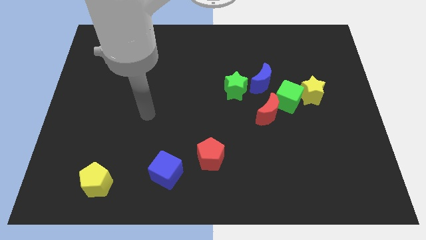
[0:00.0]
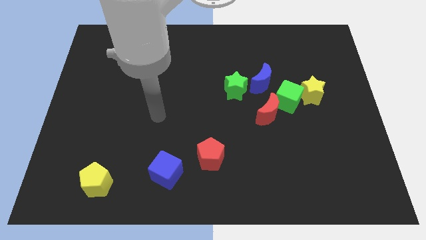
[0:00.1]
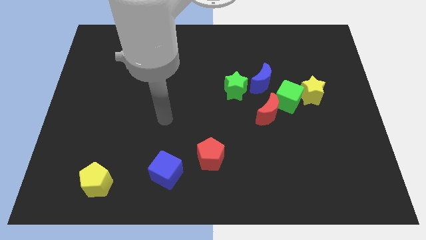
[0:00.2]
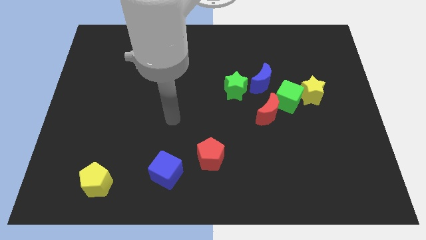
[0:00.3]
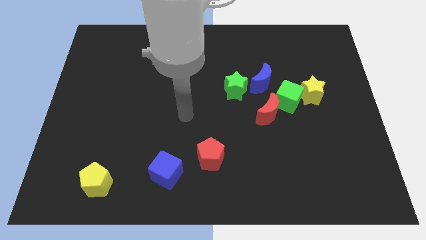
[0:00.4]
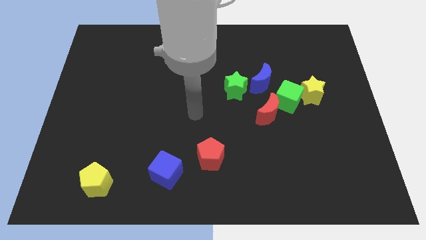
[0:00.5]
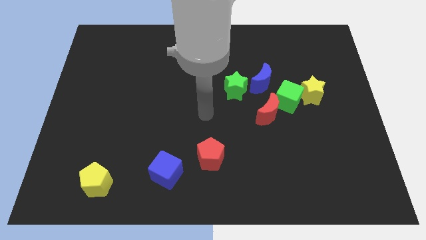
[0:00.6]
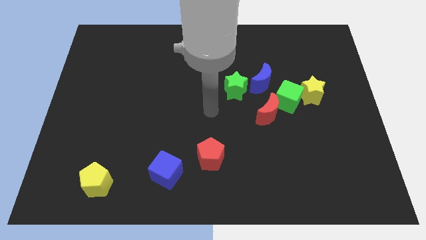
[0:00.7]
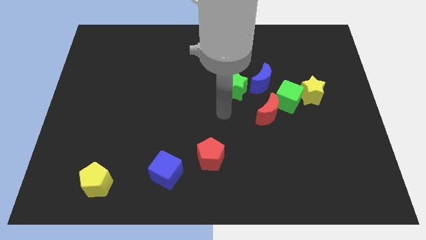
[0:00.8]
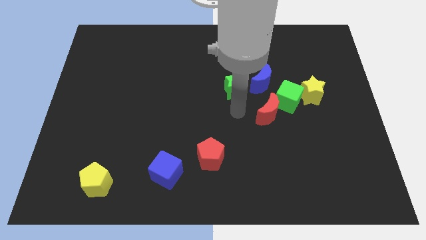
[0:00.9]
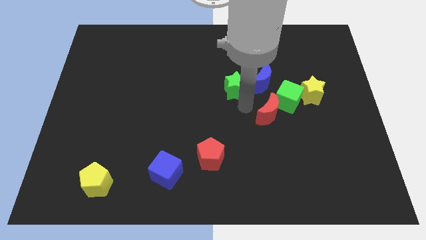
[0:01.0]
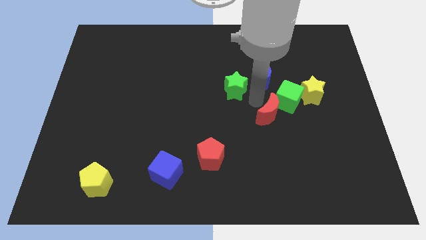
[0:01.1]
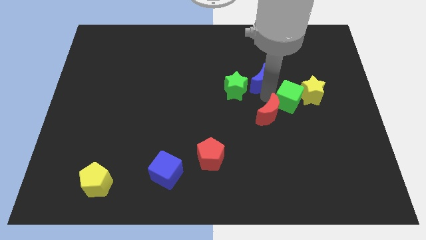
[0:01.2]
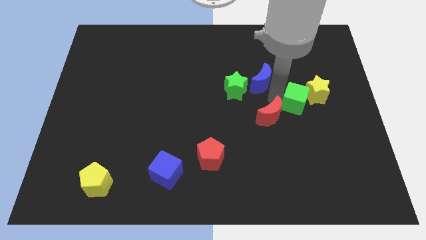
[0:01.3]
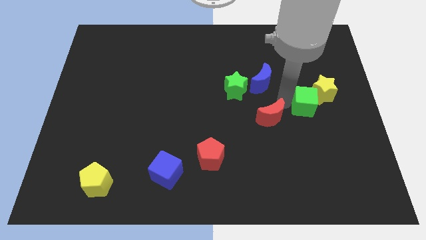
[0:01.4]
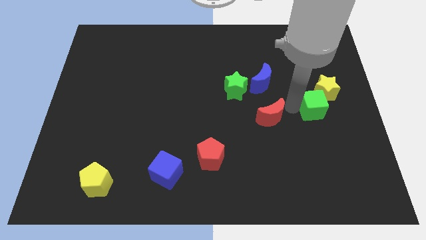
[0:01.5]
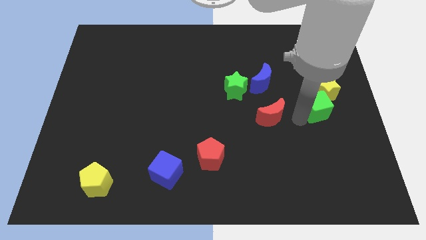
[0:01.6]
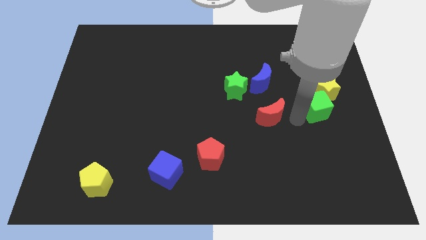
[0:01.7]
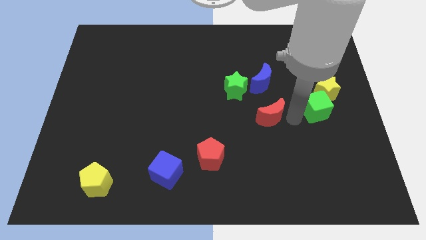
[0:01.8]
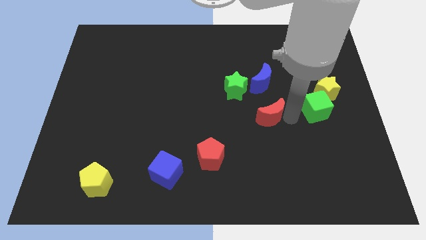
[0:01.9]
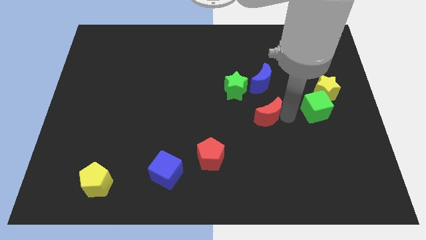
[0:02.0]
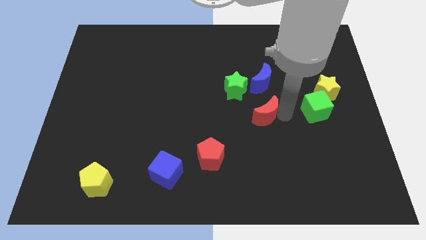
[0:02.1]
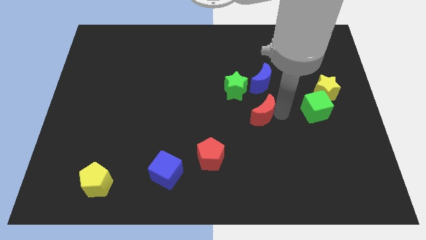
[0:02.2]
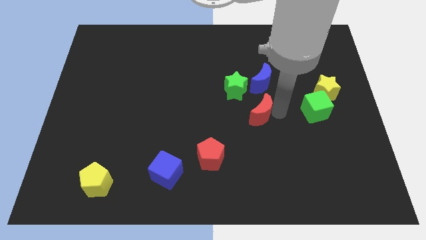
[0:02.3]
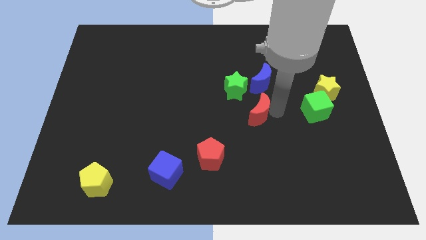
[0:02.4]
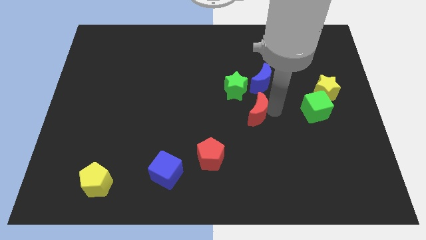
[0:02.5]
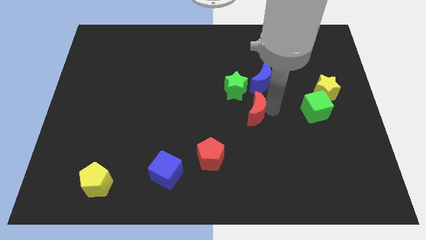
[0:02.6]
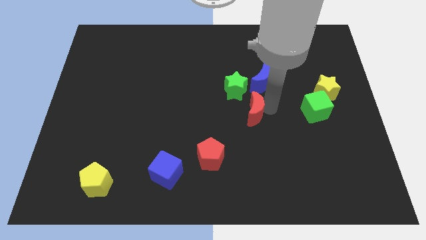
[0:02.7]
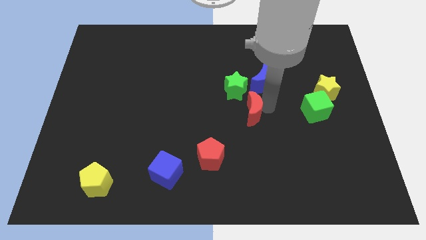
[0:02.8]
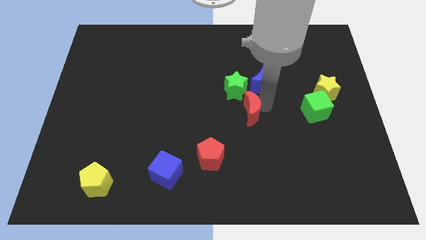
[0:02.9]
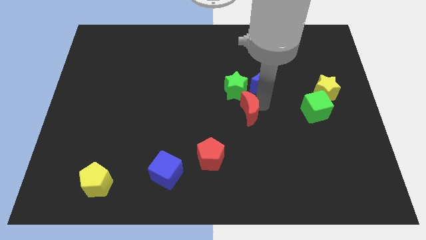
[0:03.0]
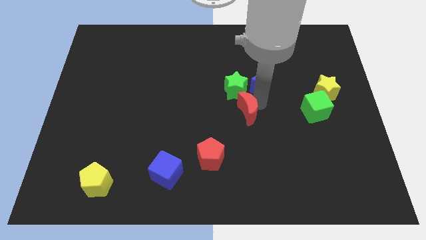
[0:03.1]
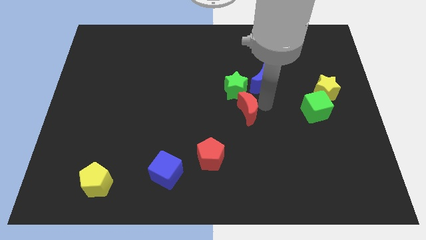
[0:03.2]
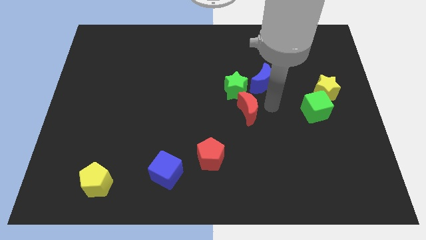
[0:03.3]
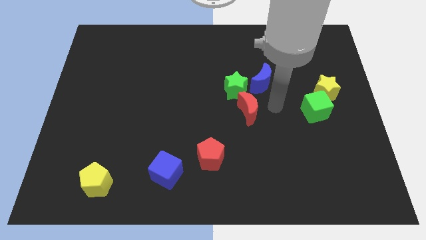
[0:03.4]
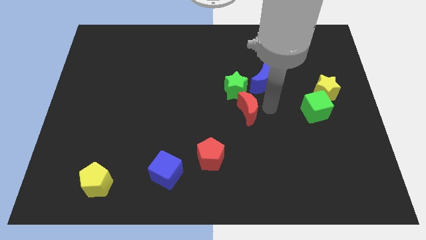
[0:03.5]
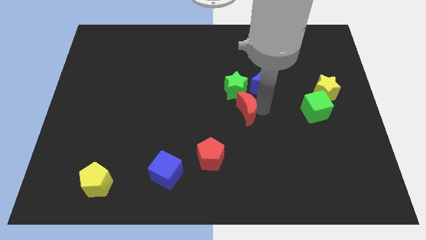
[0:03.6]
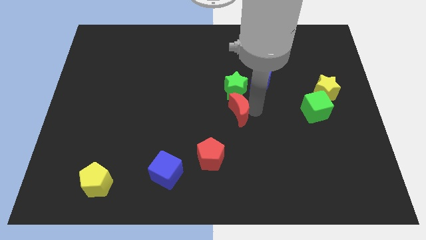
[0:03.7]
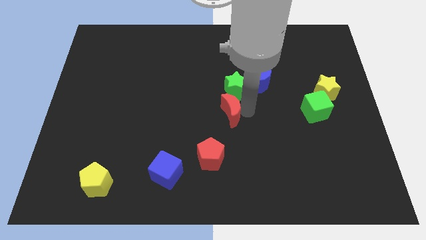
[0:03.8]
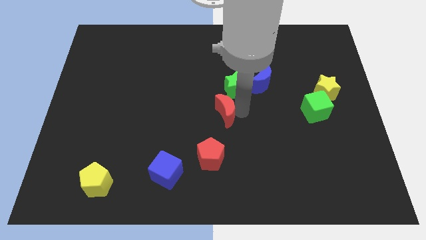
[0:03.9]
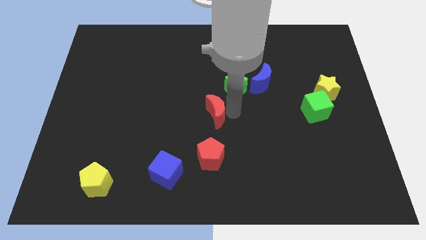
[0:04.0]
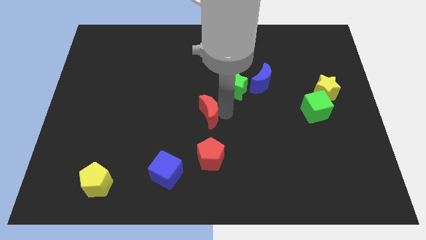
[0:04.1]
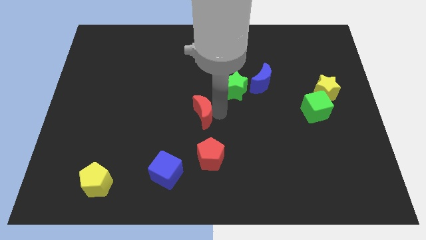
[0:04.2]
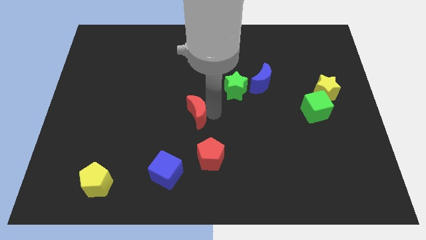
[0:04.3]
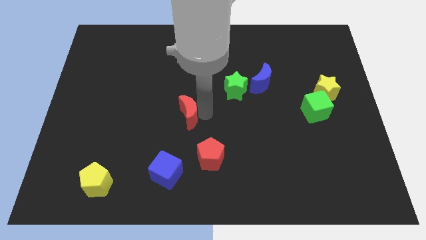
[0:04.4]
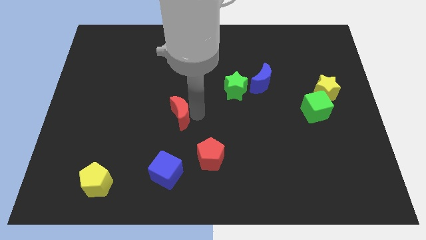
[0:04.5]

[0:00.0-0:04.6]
move the red moon left

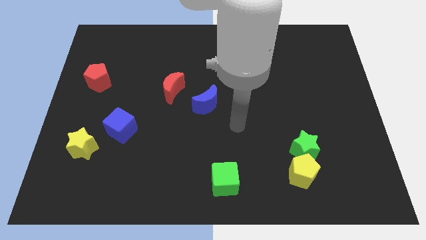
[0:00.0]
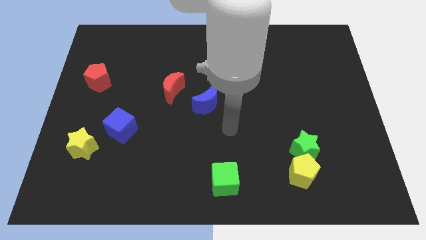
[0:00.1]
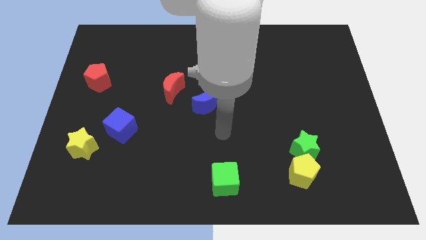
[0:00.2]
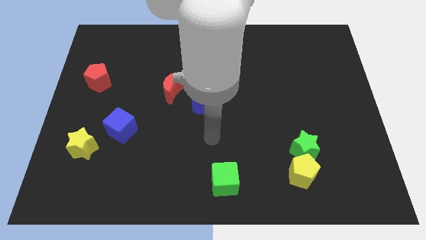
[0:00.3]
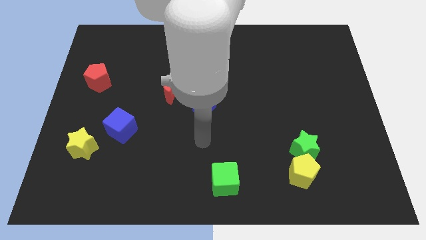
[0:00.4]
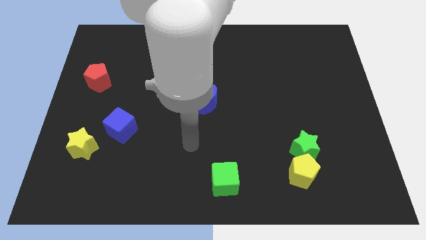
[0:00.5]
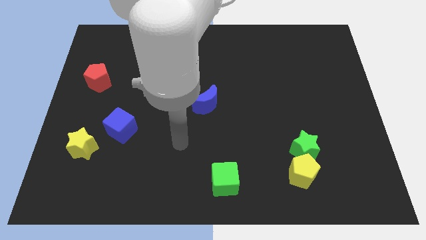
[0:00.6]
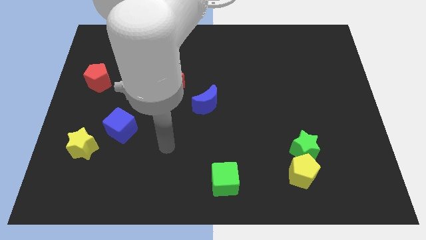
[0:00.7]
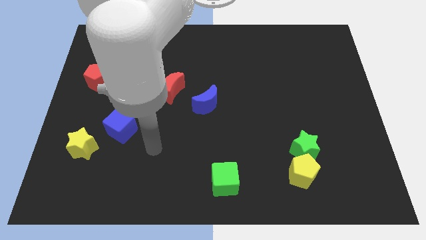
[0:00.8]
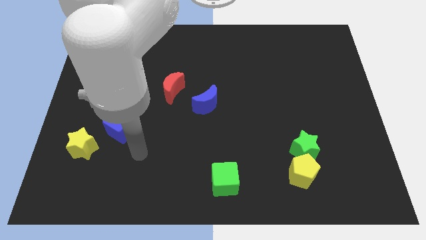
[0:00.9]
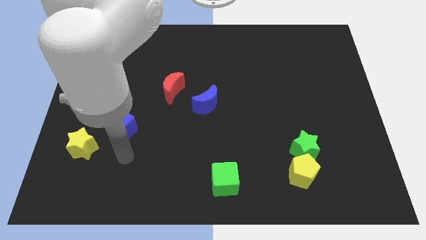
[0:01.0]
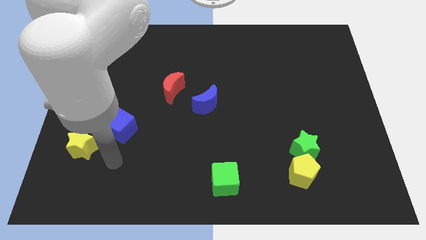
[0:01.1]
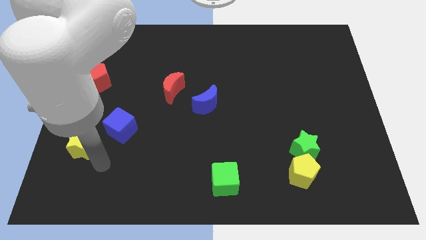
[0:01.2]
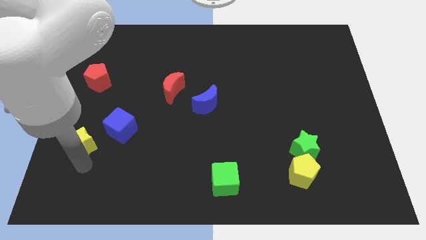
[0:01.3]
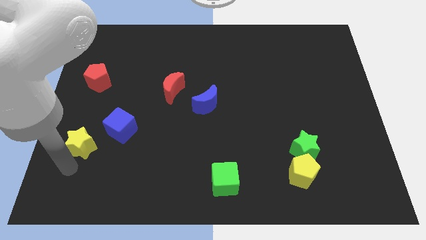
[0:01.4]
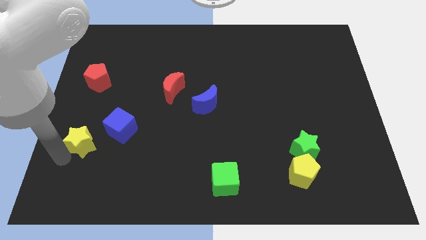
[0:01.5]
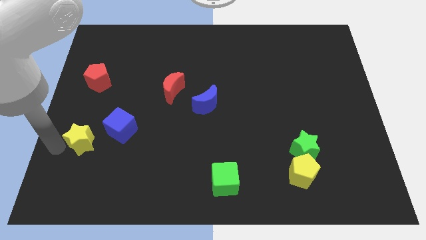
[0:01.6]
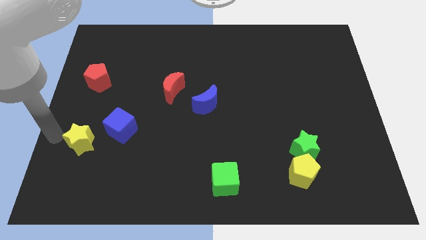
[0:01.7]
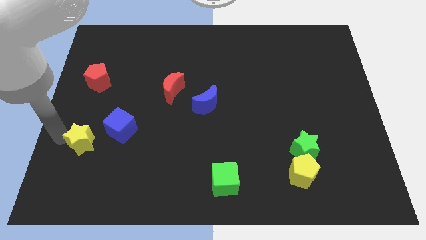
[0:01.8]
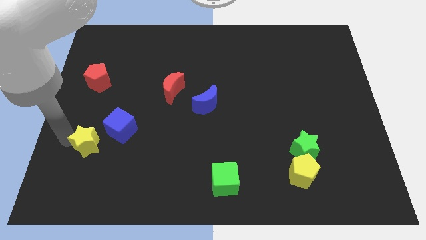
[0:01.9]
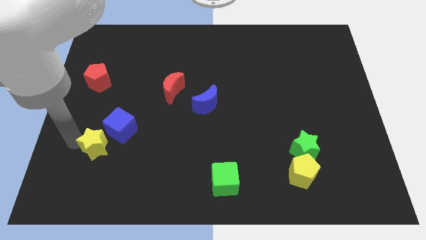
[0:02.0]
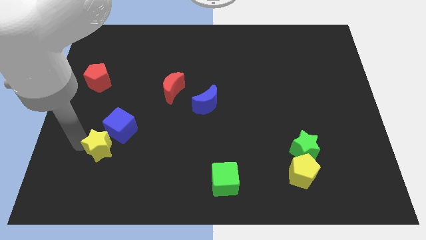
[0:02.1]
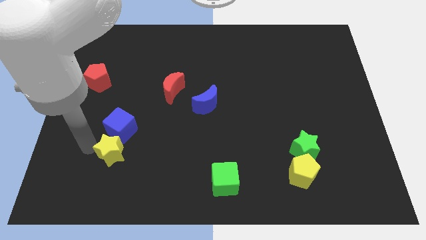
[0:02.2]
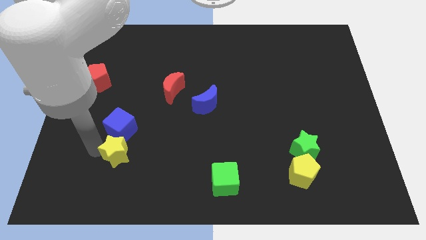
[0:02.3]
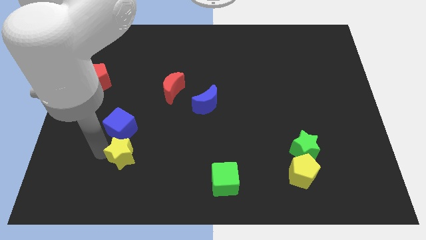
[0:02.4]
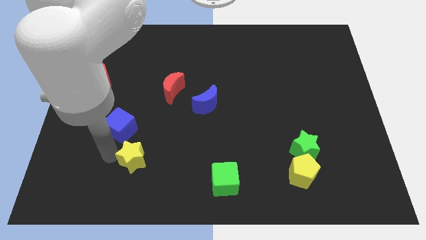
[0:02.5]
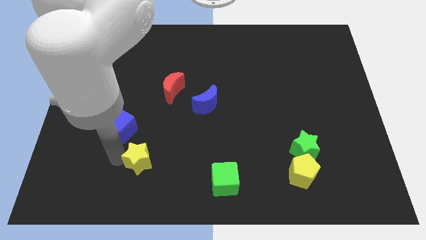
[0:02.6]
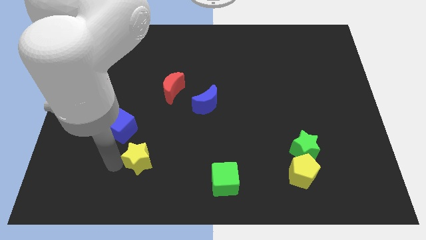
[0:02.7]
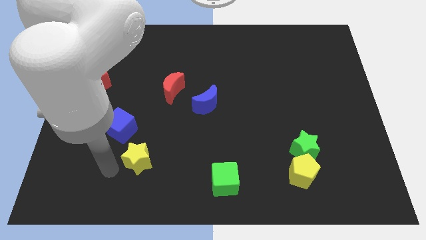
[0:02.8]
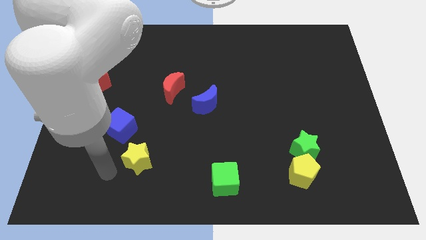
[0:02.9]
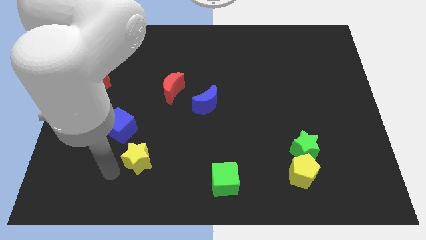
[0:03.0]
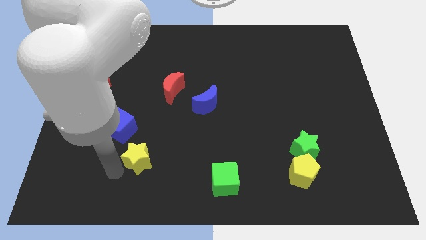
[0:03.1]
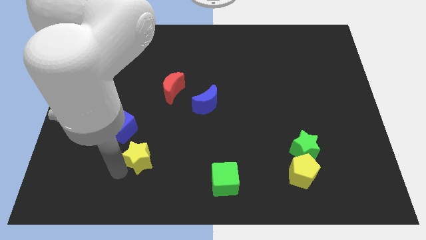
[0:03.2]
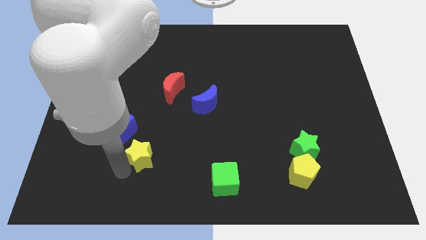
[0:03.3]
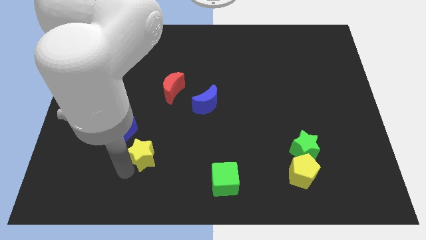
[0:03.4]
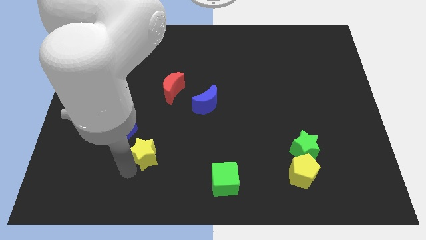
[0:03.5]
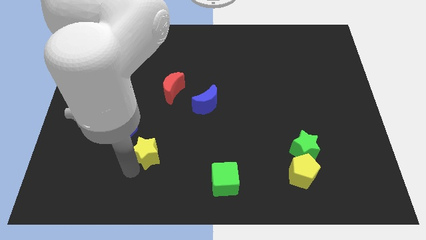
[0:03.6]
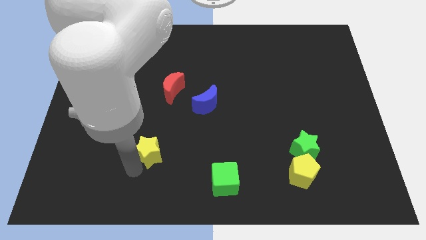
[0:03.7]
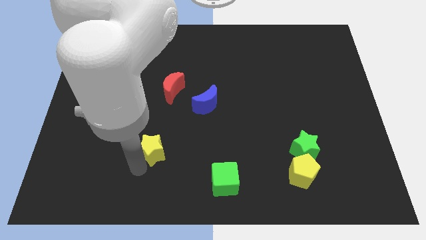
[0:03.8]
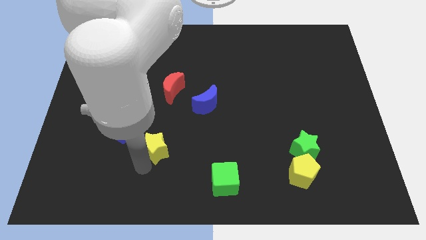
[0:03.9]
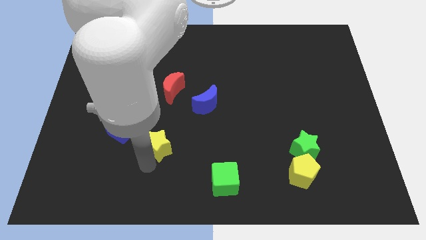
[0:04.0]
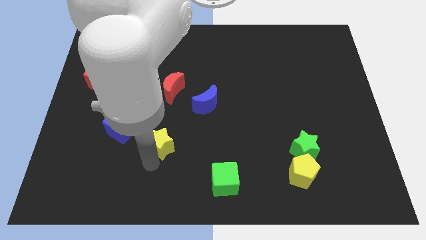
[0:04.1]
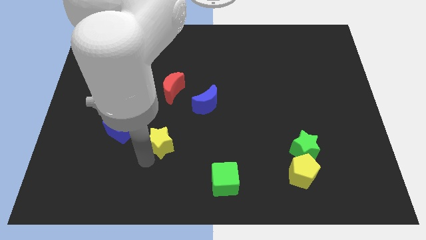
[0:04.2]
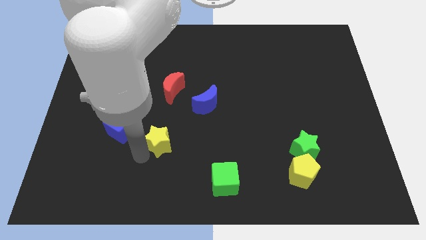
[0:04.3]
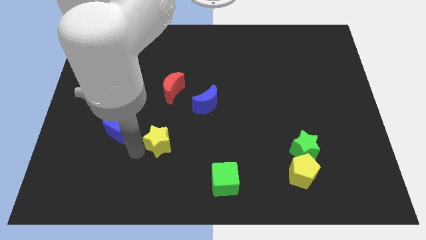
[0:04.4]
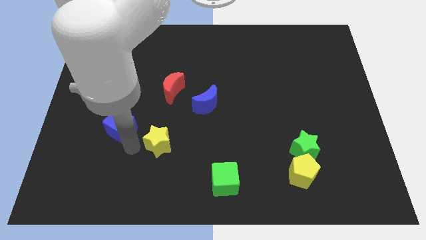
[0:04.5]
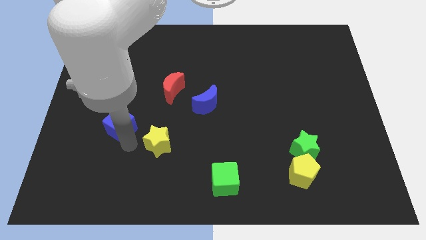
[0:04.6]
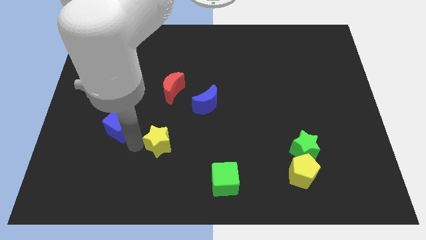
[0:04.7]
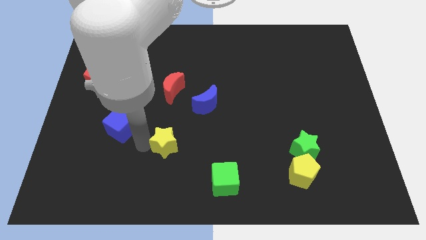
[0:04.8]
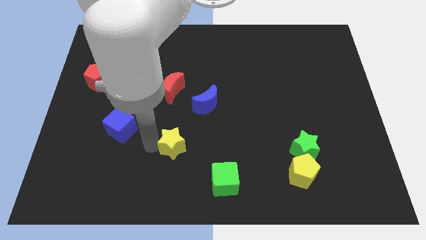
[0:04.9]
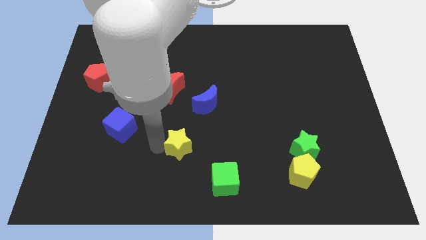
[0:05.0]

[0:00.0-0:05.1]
slide the yellow star to the right
